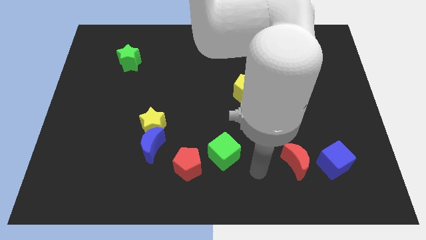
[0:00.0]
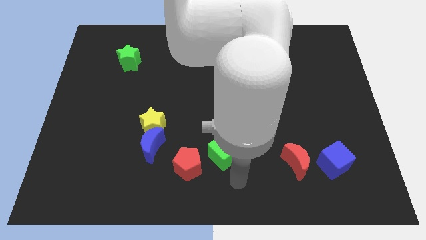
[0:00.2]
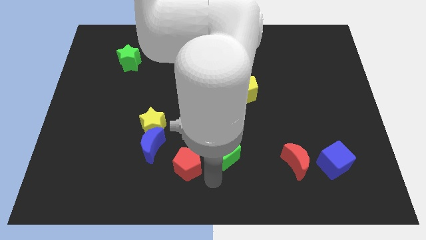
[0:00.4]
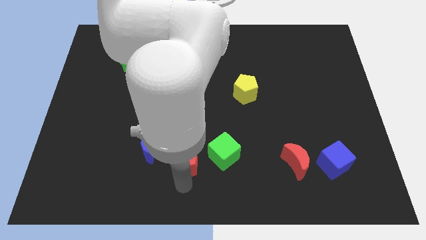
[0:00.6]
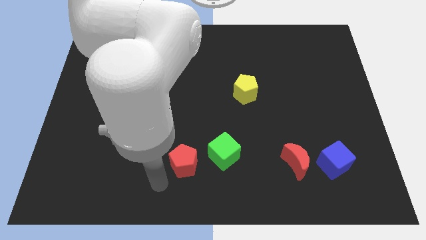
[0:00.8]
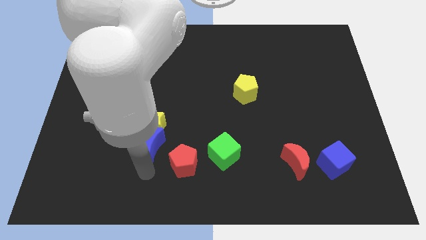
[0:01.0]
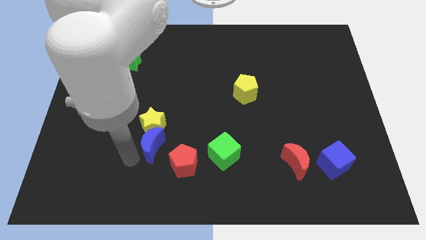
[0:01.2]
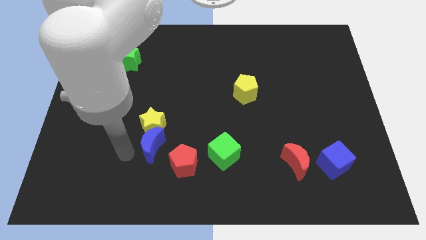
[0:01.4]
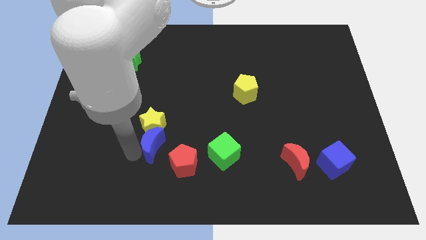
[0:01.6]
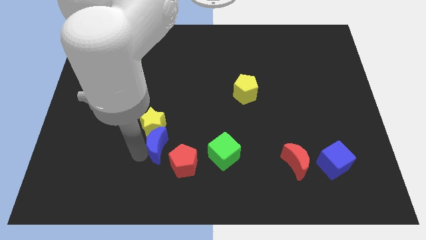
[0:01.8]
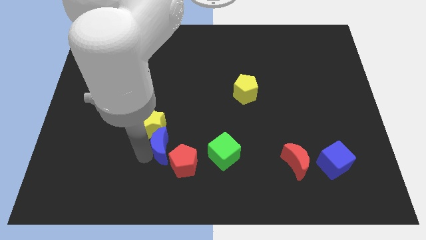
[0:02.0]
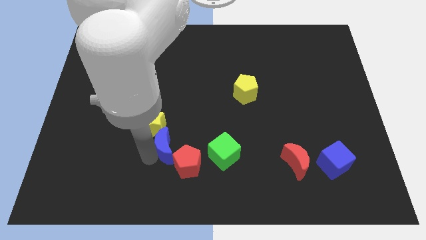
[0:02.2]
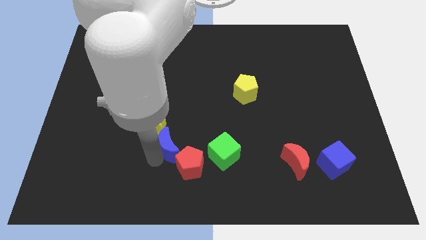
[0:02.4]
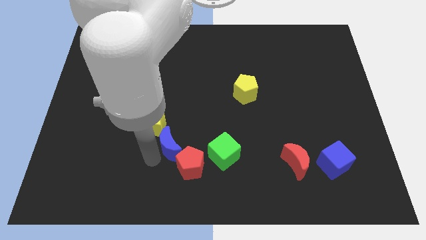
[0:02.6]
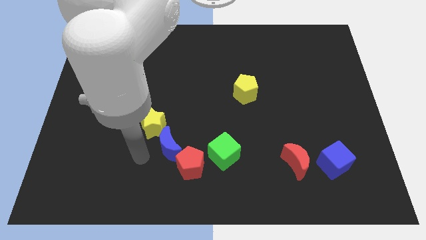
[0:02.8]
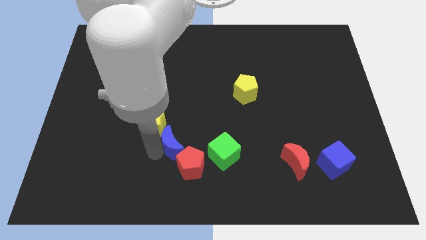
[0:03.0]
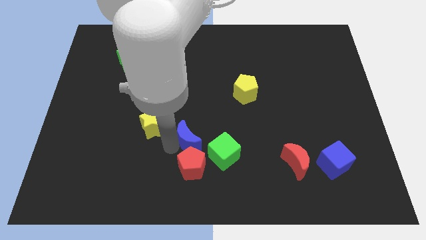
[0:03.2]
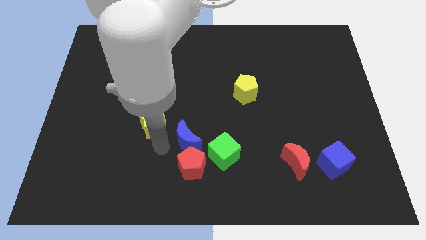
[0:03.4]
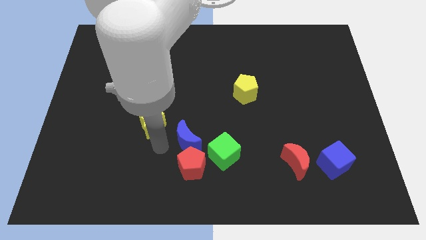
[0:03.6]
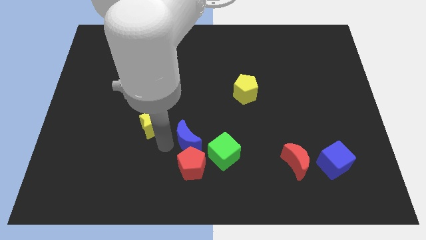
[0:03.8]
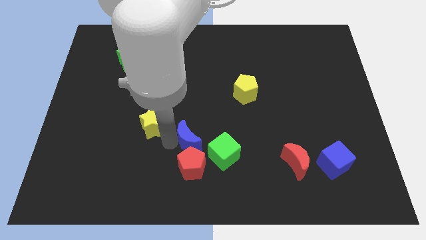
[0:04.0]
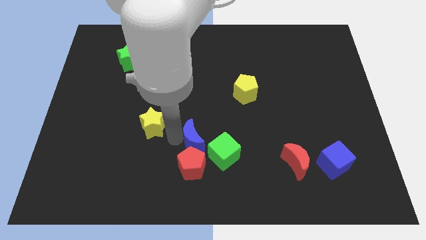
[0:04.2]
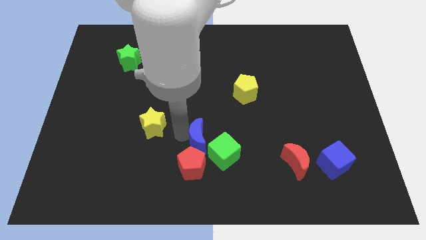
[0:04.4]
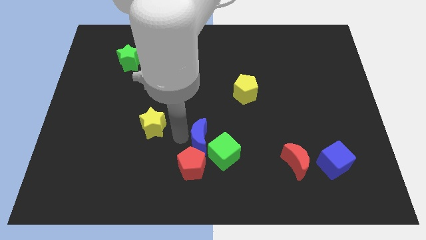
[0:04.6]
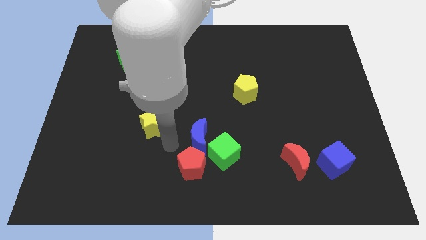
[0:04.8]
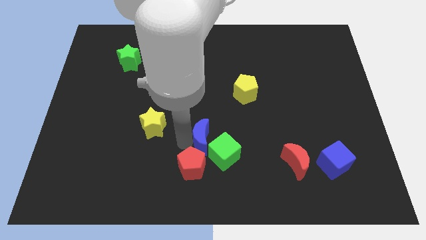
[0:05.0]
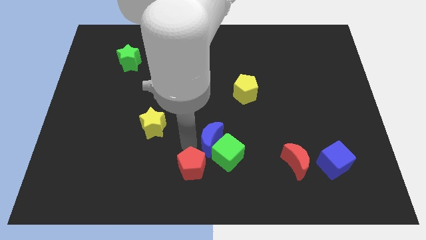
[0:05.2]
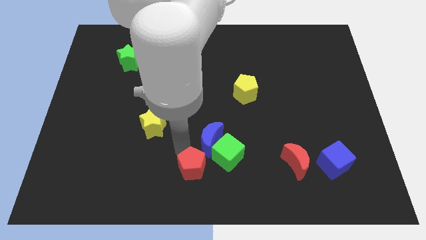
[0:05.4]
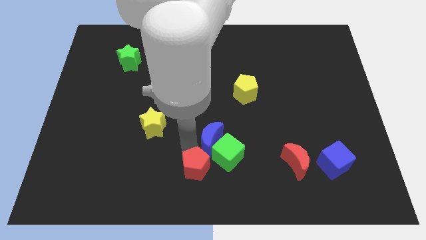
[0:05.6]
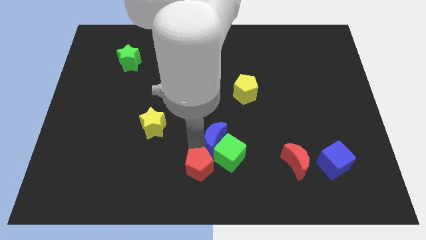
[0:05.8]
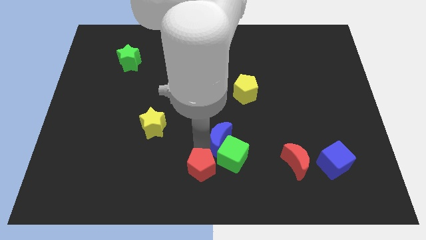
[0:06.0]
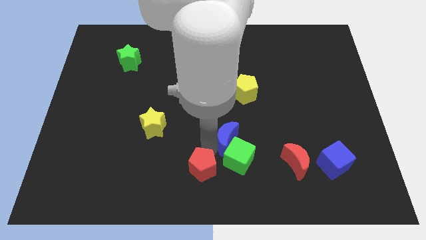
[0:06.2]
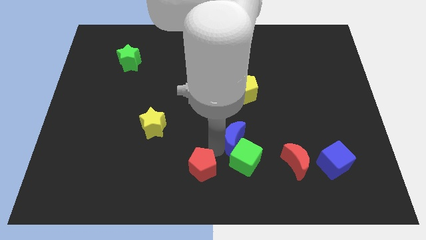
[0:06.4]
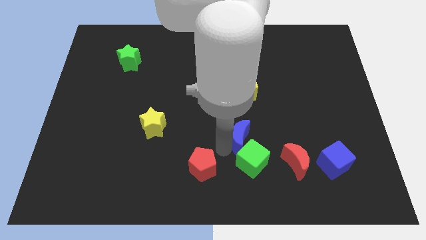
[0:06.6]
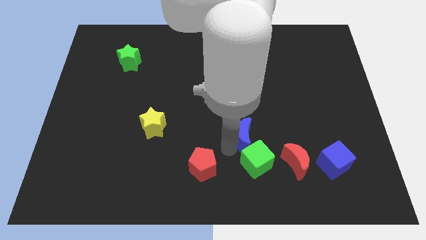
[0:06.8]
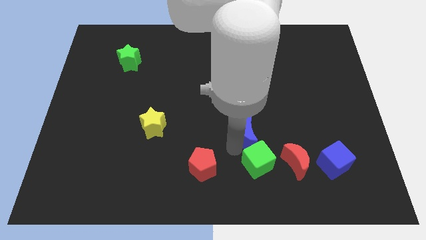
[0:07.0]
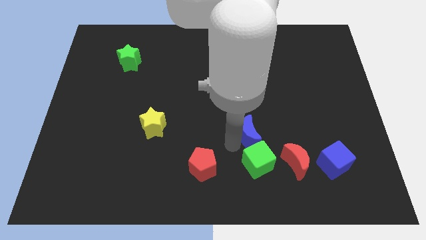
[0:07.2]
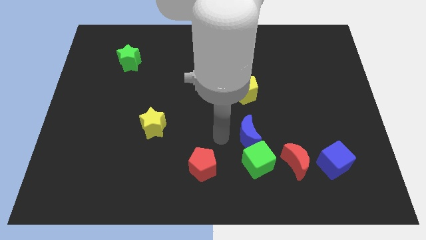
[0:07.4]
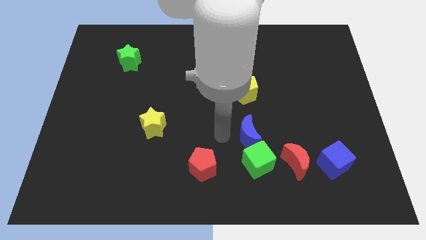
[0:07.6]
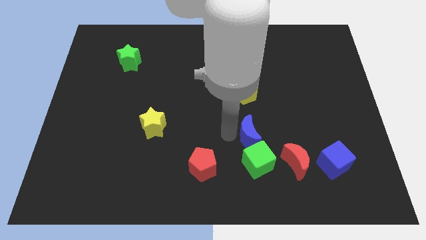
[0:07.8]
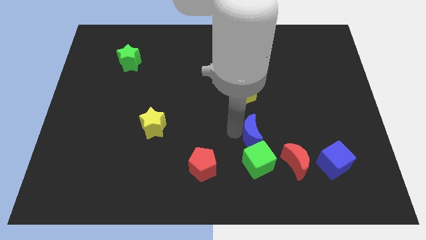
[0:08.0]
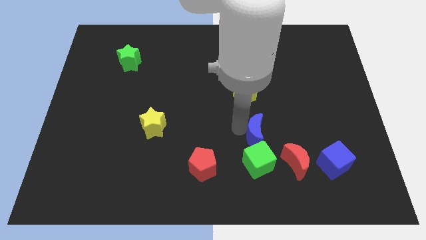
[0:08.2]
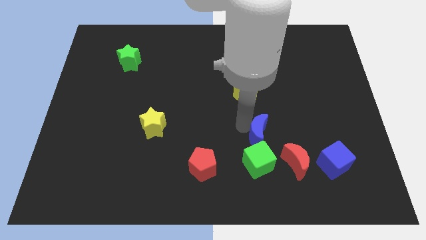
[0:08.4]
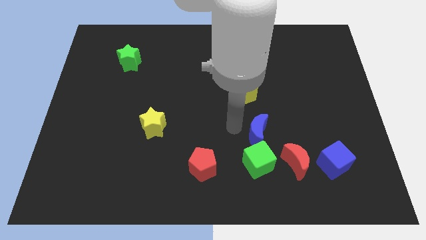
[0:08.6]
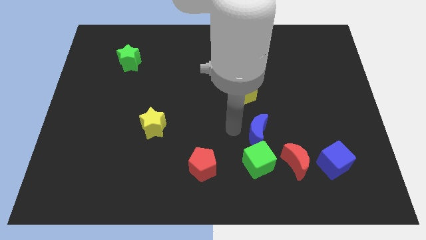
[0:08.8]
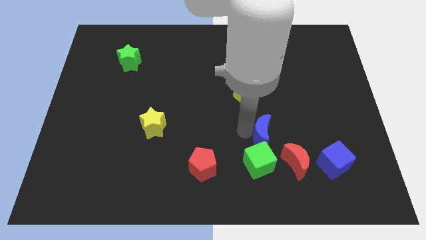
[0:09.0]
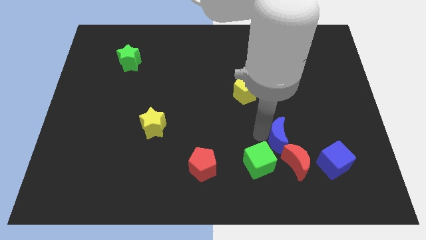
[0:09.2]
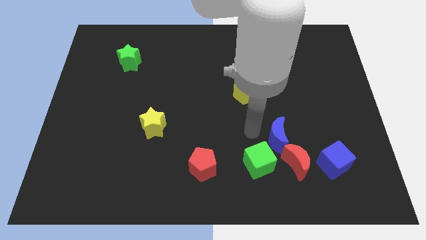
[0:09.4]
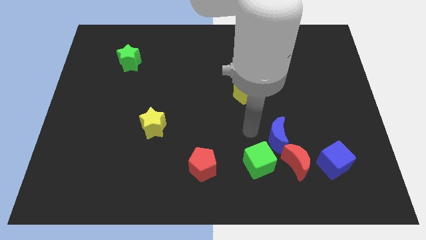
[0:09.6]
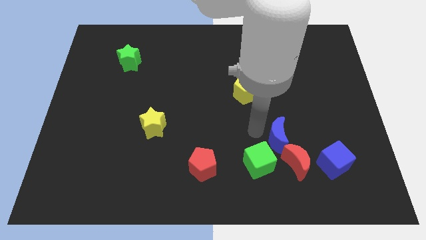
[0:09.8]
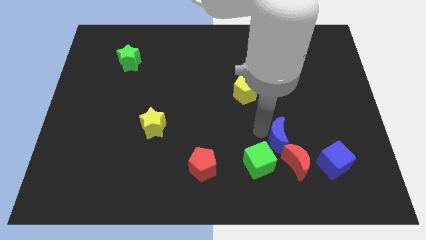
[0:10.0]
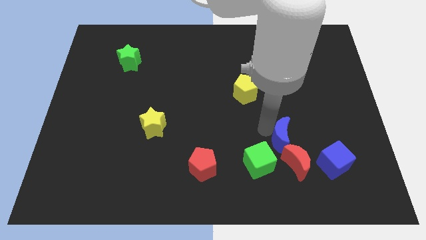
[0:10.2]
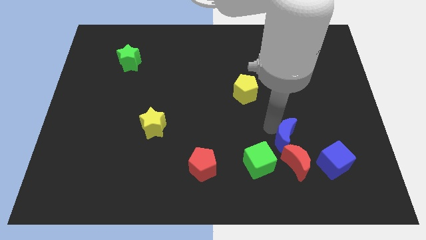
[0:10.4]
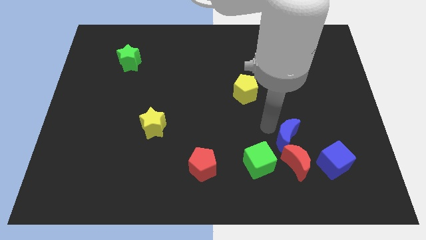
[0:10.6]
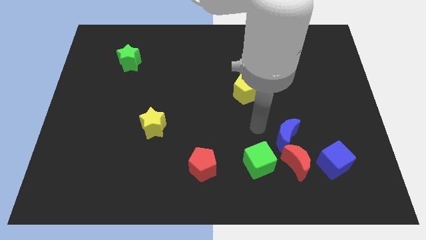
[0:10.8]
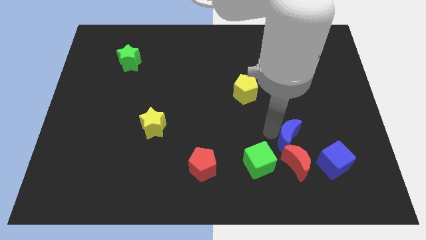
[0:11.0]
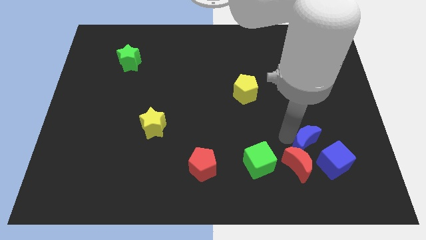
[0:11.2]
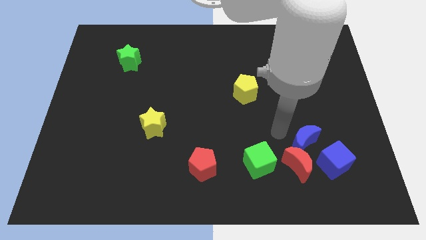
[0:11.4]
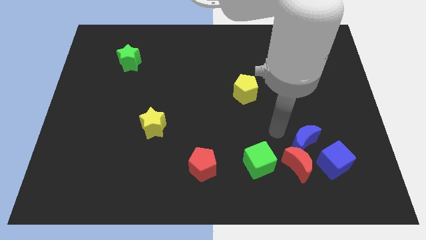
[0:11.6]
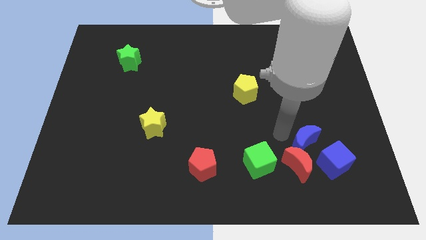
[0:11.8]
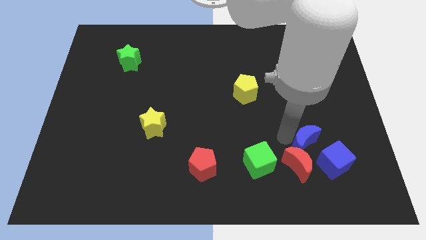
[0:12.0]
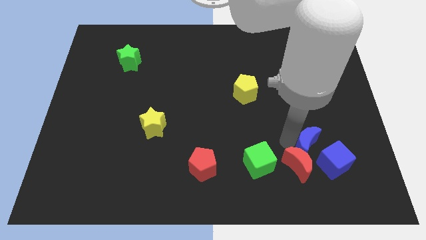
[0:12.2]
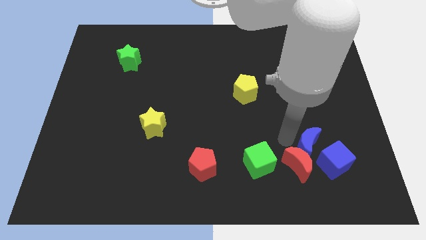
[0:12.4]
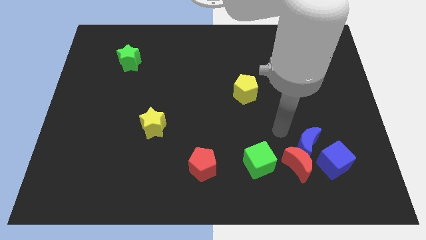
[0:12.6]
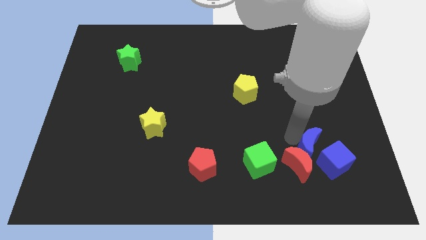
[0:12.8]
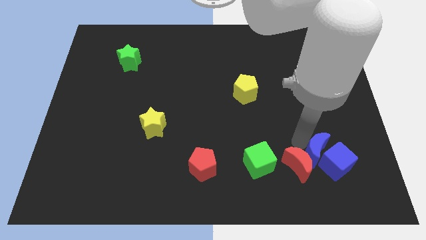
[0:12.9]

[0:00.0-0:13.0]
slide the blue moon to the blue cube

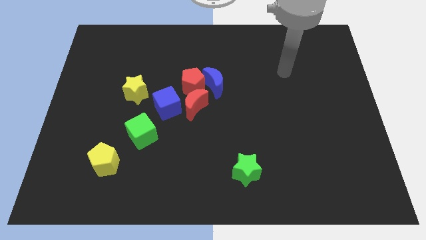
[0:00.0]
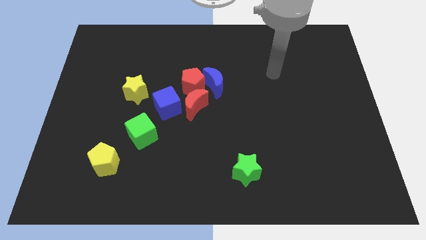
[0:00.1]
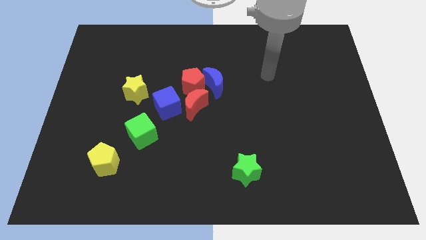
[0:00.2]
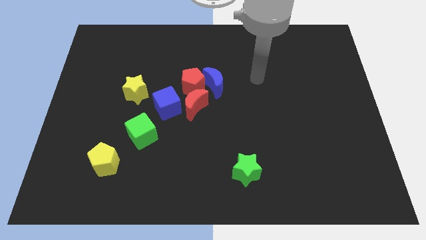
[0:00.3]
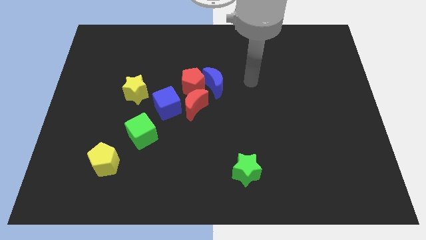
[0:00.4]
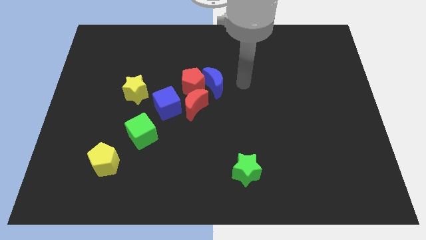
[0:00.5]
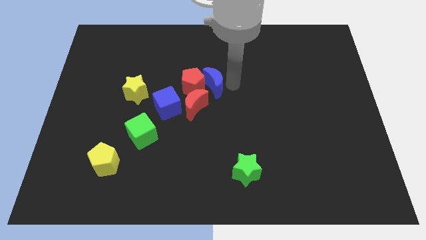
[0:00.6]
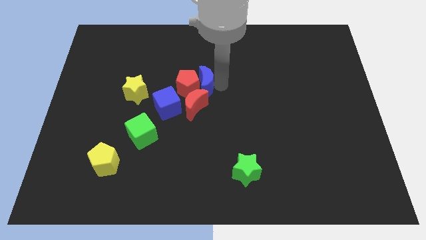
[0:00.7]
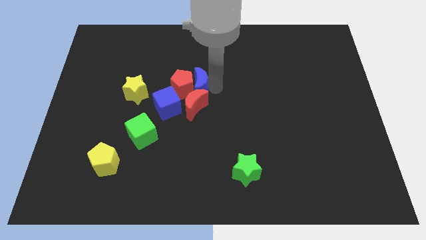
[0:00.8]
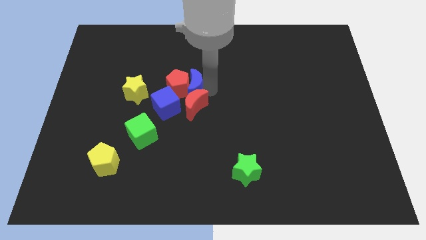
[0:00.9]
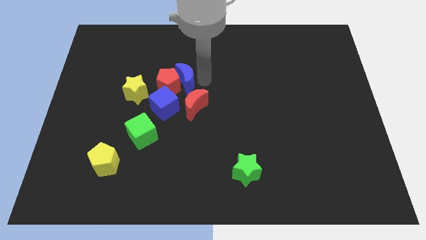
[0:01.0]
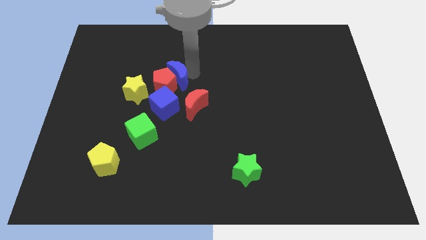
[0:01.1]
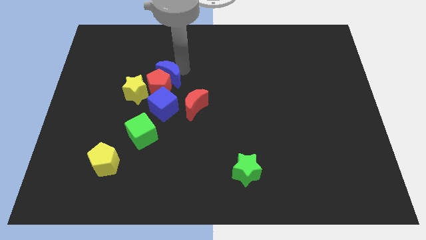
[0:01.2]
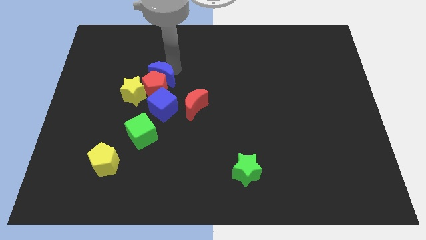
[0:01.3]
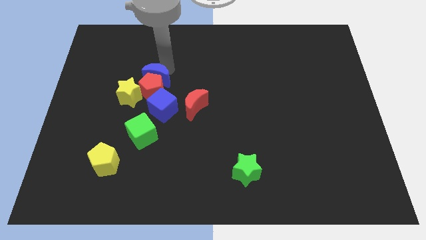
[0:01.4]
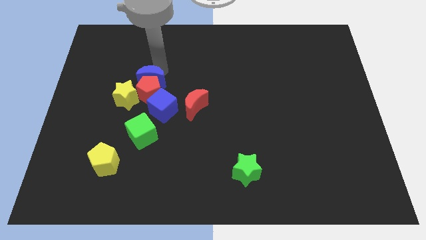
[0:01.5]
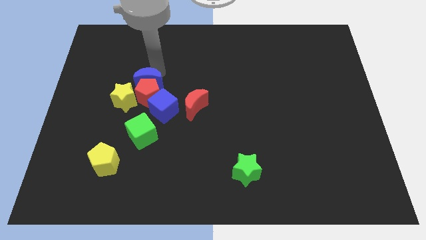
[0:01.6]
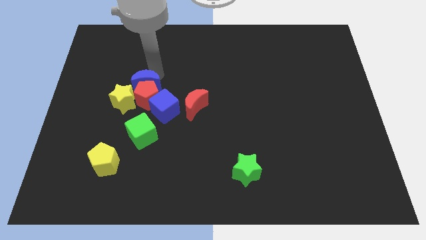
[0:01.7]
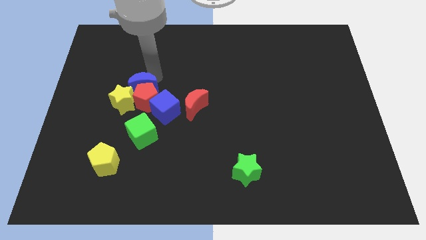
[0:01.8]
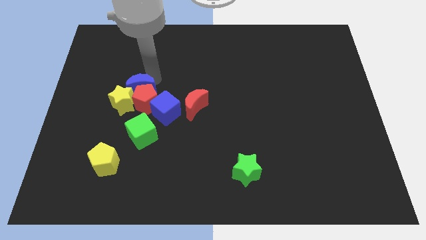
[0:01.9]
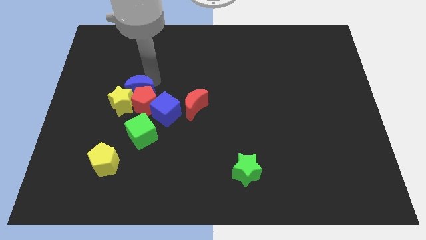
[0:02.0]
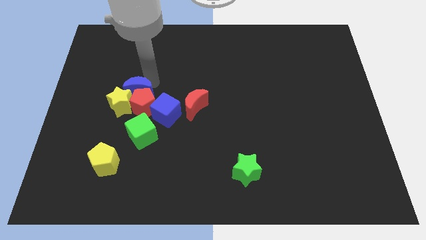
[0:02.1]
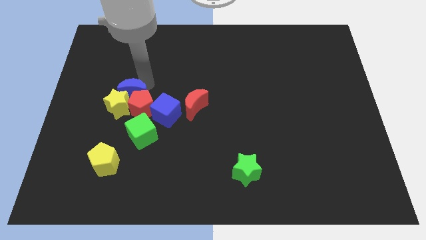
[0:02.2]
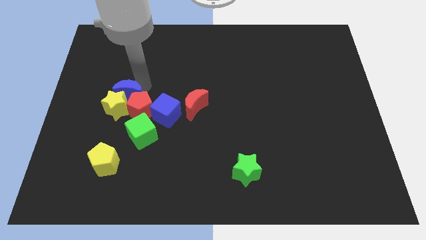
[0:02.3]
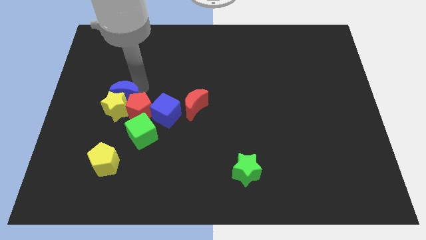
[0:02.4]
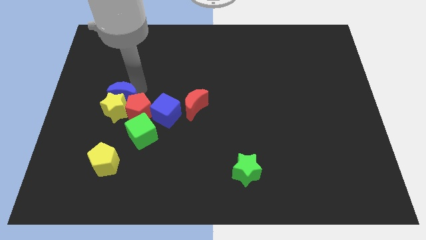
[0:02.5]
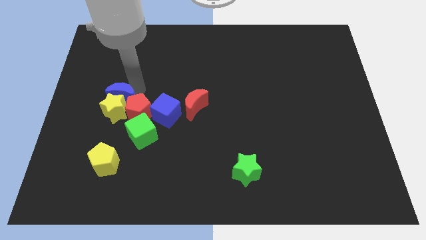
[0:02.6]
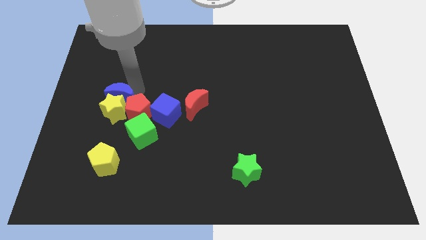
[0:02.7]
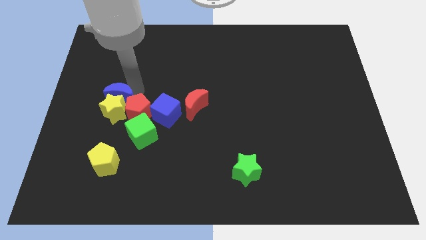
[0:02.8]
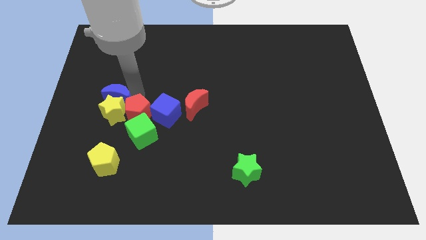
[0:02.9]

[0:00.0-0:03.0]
put the red pentagon next to the green cube
